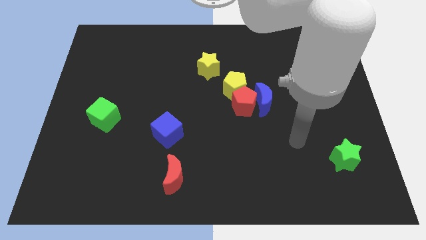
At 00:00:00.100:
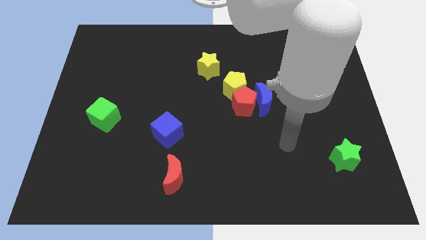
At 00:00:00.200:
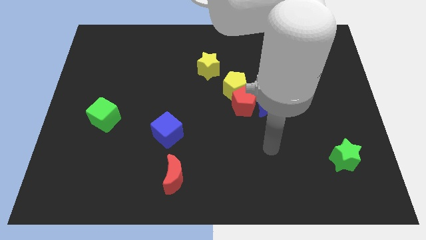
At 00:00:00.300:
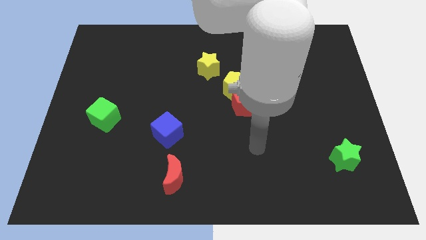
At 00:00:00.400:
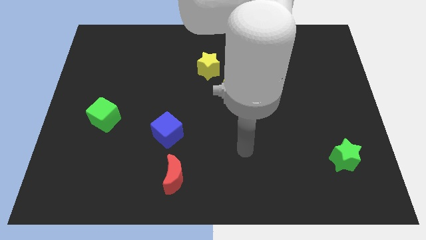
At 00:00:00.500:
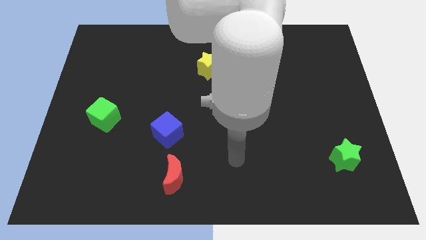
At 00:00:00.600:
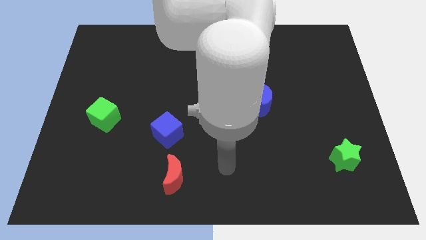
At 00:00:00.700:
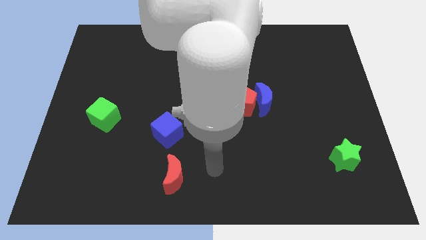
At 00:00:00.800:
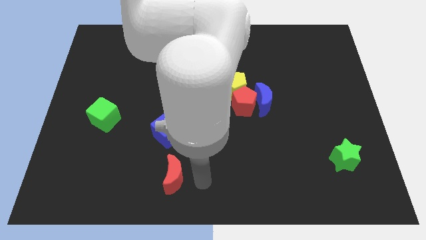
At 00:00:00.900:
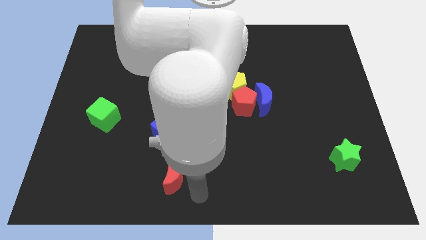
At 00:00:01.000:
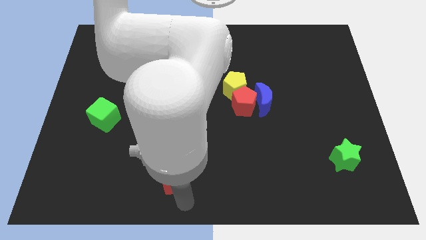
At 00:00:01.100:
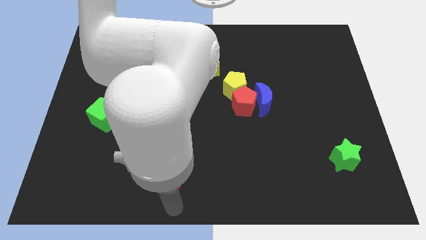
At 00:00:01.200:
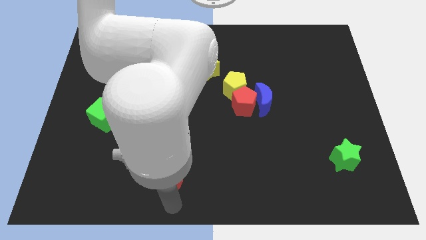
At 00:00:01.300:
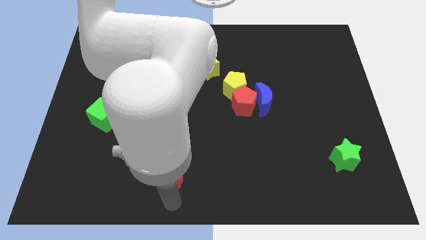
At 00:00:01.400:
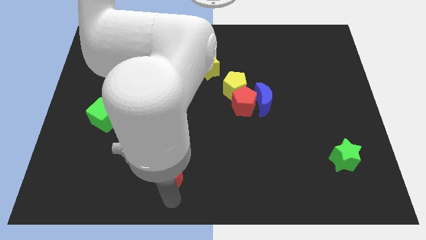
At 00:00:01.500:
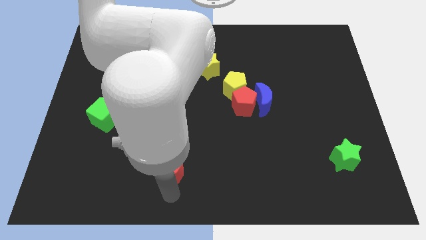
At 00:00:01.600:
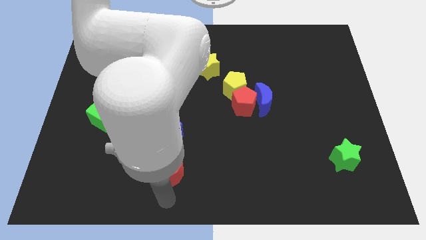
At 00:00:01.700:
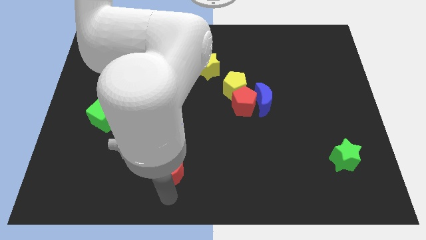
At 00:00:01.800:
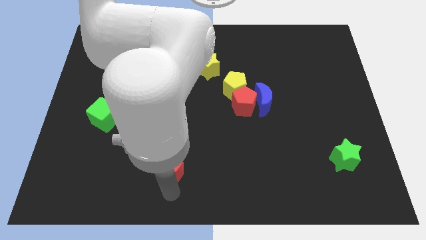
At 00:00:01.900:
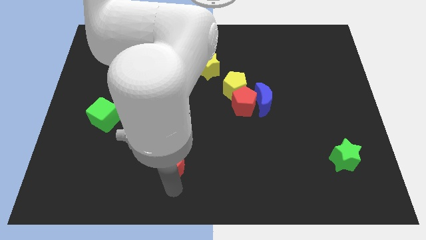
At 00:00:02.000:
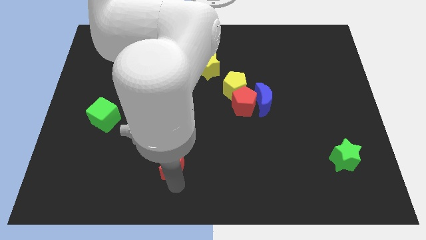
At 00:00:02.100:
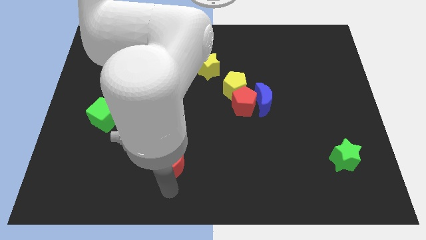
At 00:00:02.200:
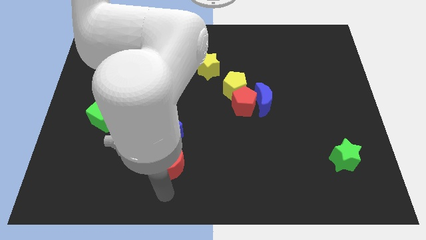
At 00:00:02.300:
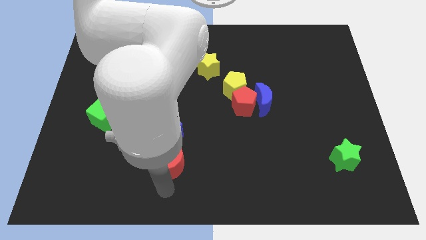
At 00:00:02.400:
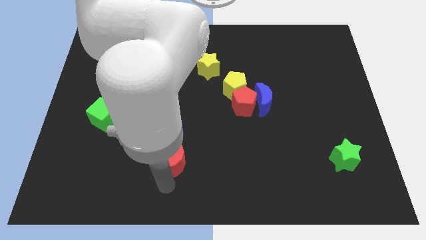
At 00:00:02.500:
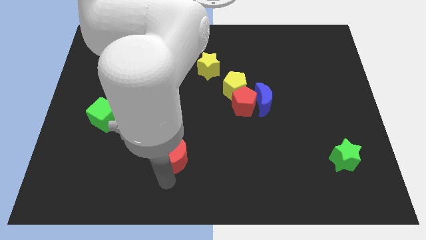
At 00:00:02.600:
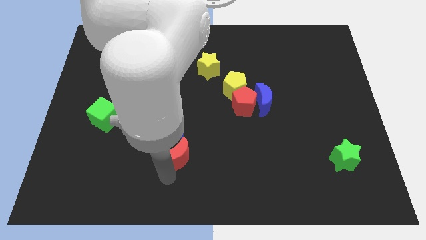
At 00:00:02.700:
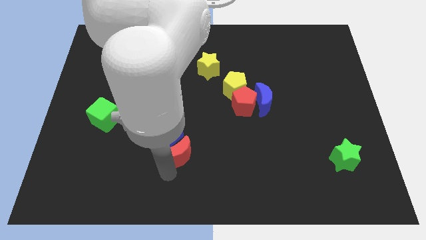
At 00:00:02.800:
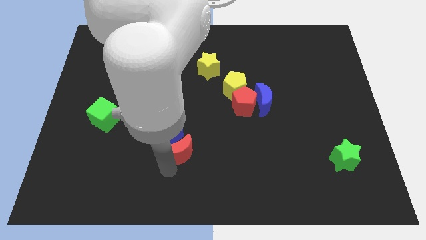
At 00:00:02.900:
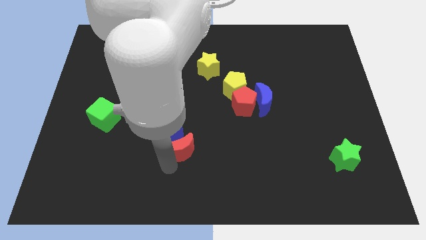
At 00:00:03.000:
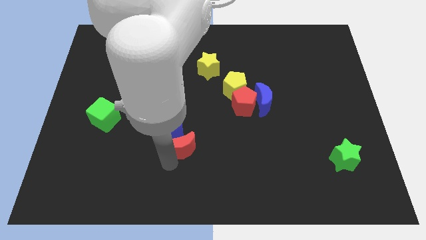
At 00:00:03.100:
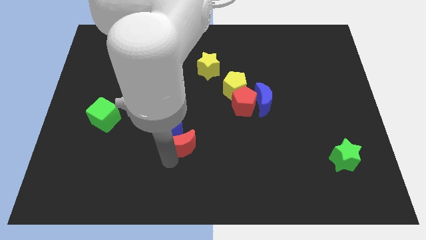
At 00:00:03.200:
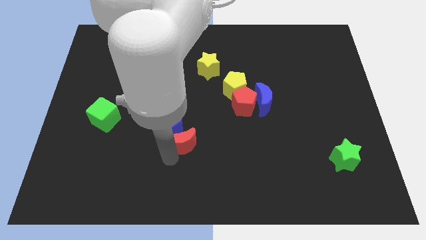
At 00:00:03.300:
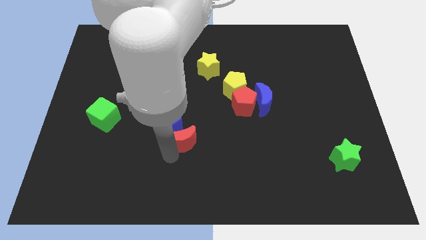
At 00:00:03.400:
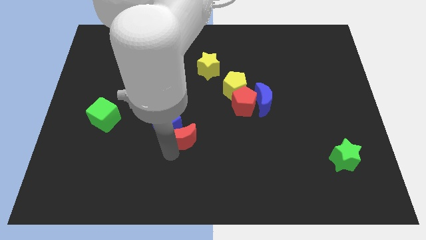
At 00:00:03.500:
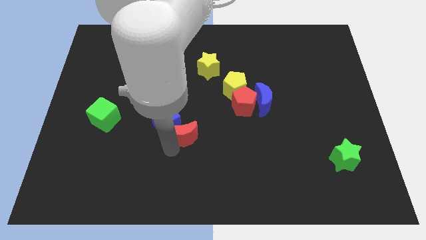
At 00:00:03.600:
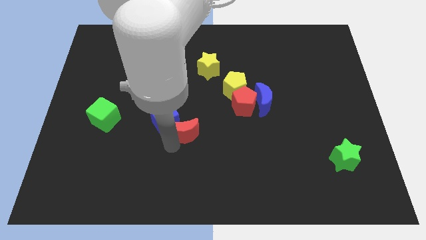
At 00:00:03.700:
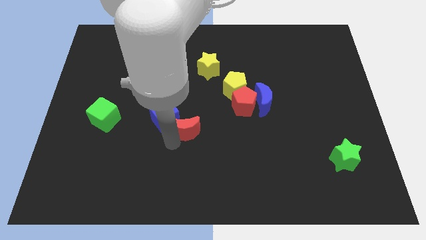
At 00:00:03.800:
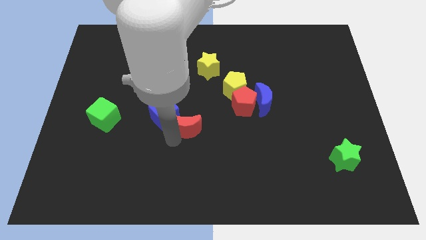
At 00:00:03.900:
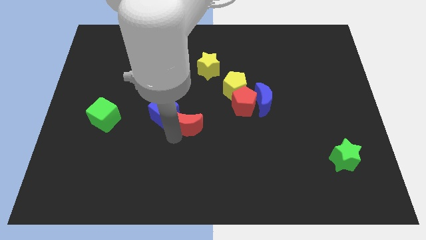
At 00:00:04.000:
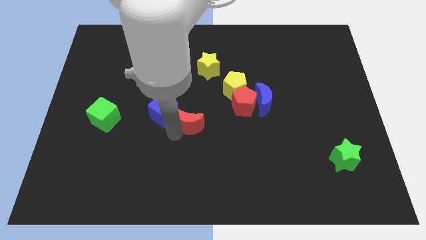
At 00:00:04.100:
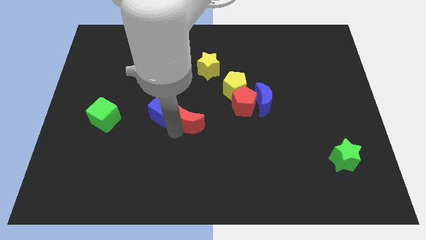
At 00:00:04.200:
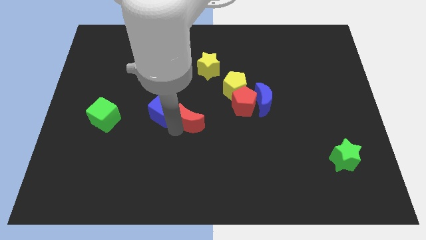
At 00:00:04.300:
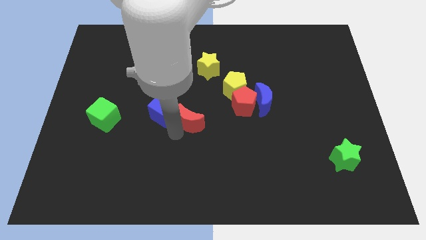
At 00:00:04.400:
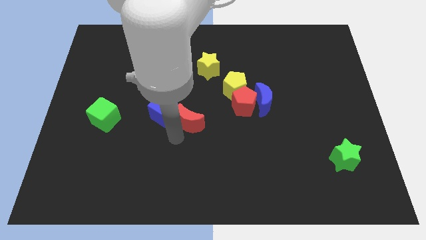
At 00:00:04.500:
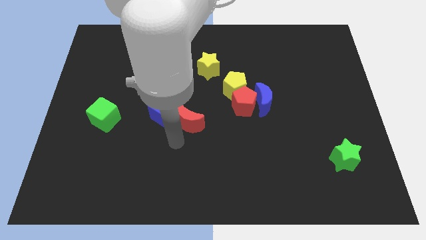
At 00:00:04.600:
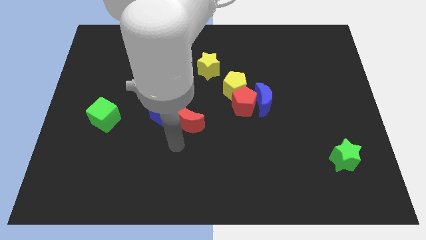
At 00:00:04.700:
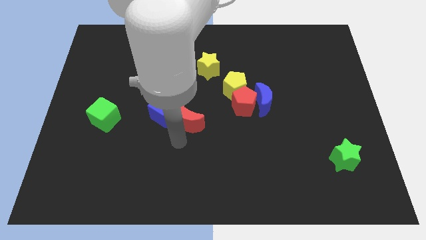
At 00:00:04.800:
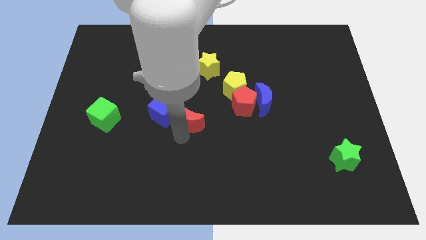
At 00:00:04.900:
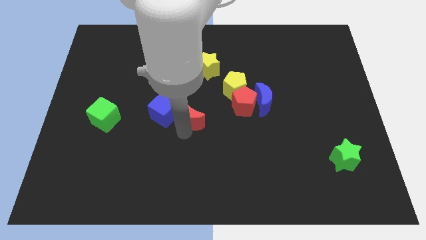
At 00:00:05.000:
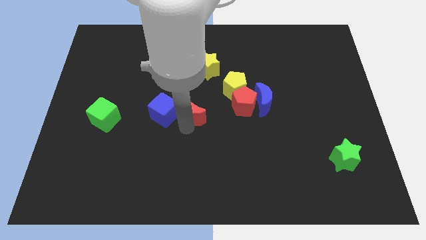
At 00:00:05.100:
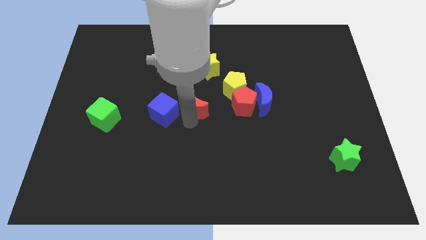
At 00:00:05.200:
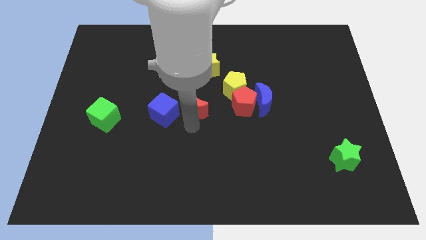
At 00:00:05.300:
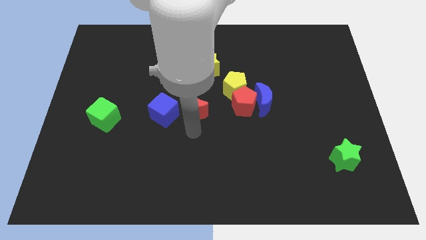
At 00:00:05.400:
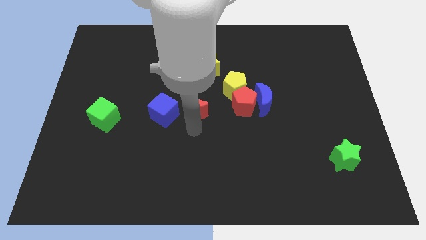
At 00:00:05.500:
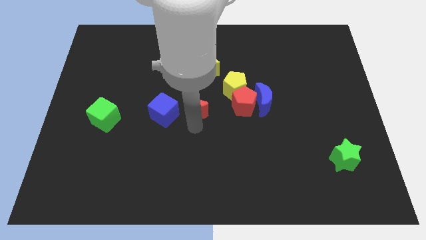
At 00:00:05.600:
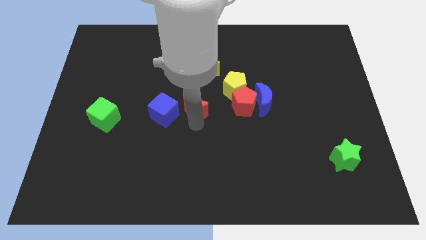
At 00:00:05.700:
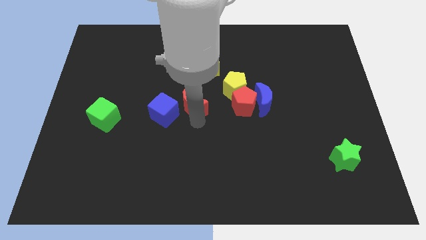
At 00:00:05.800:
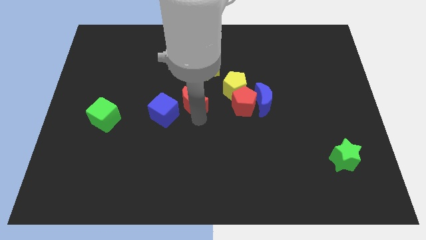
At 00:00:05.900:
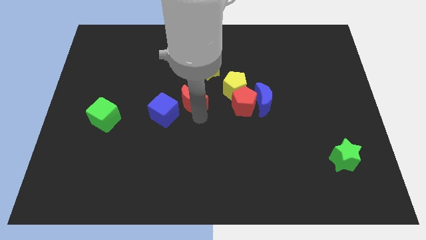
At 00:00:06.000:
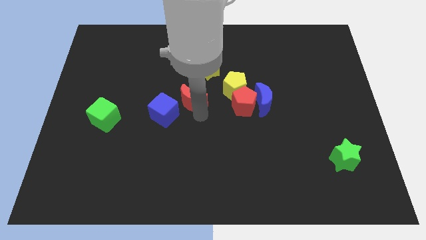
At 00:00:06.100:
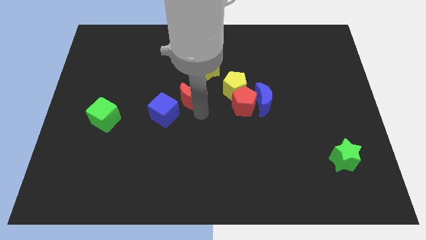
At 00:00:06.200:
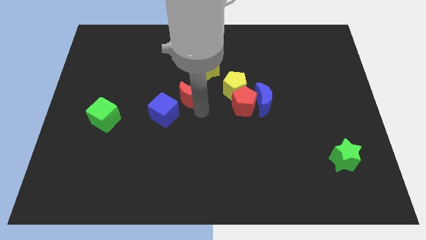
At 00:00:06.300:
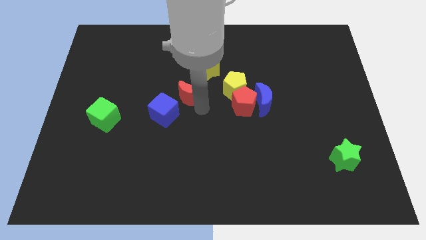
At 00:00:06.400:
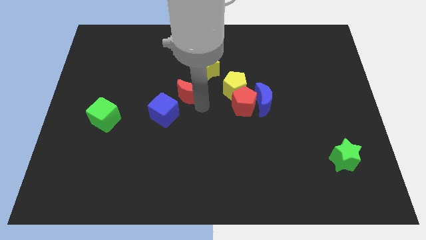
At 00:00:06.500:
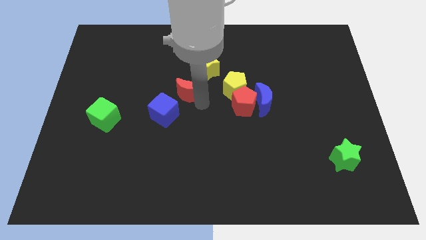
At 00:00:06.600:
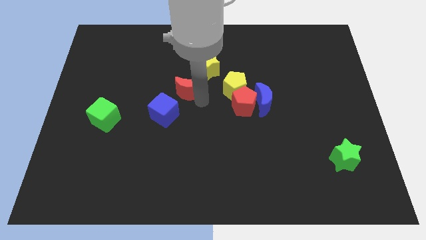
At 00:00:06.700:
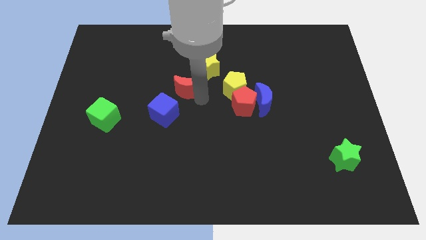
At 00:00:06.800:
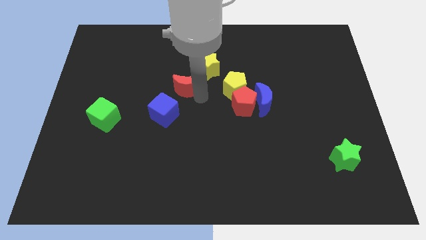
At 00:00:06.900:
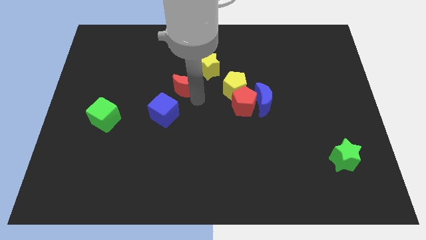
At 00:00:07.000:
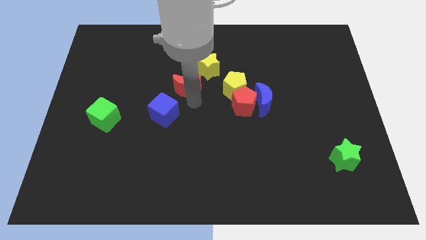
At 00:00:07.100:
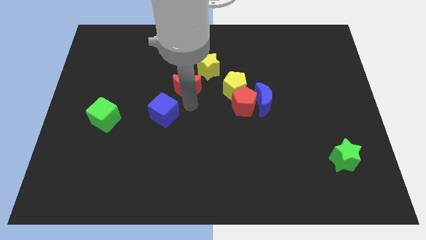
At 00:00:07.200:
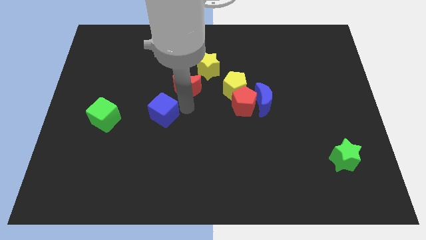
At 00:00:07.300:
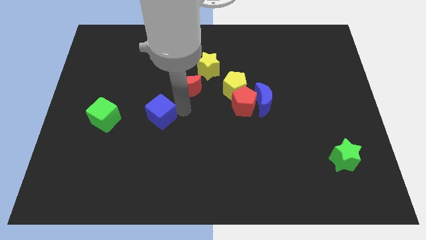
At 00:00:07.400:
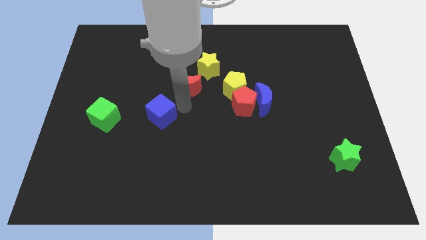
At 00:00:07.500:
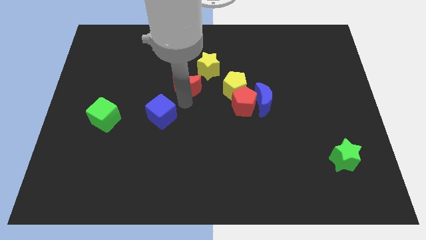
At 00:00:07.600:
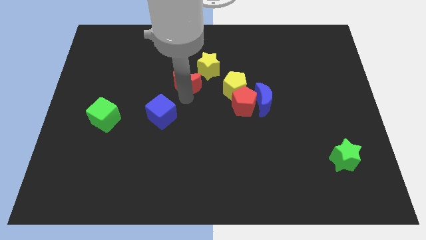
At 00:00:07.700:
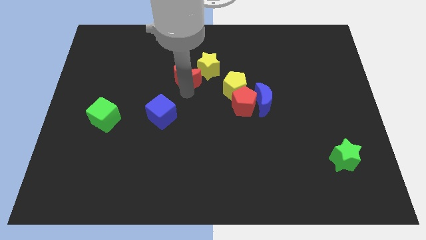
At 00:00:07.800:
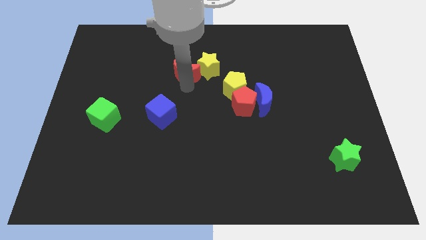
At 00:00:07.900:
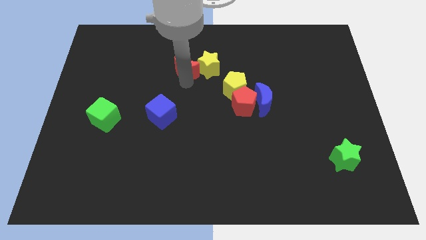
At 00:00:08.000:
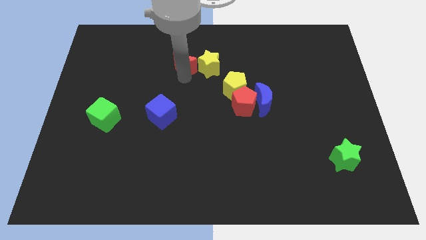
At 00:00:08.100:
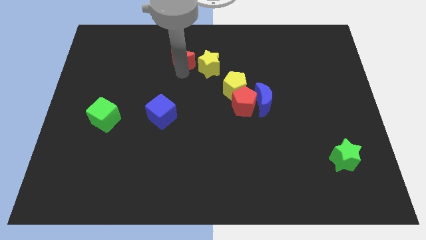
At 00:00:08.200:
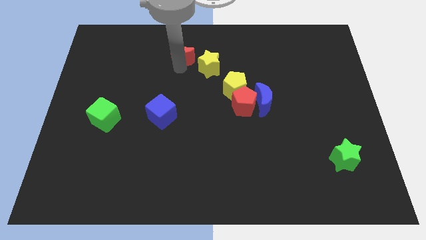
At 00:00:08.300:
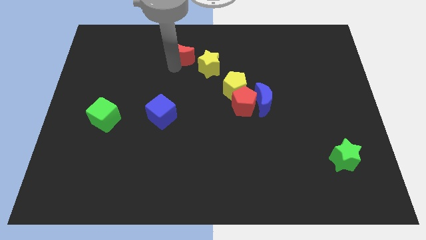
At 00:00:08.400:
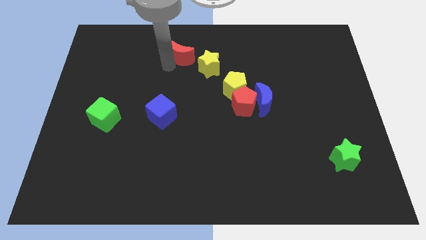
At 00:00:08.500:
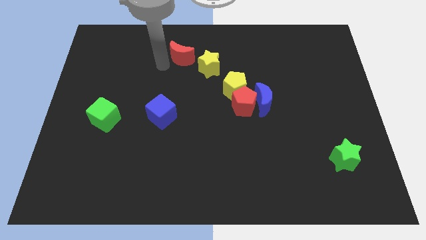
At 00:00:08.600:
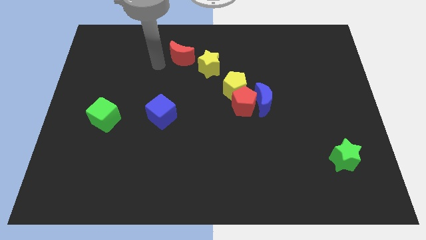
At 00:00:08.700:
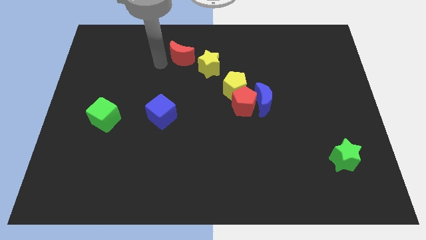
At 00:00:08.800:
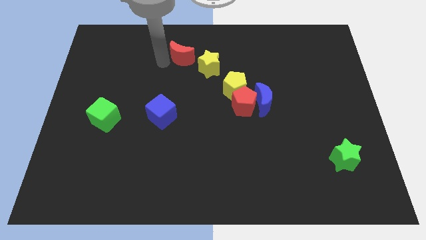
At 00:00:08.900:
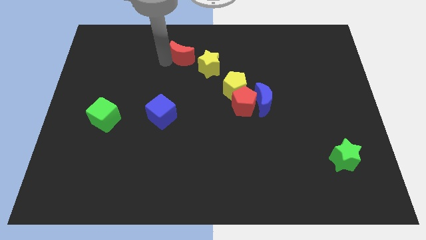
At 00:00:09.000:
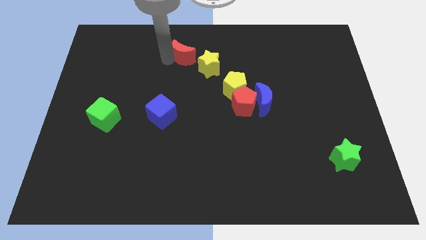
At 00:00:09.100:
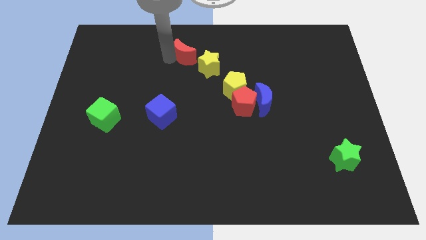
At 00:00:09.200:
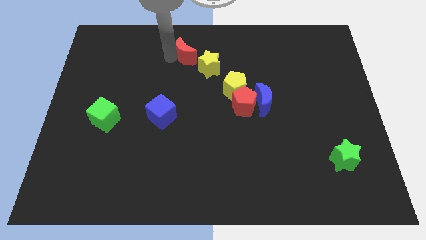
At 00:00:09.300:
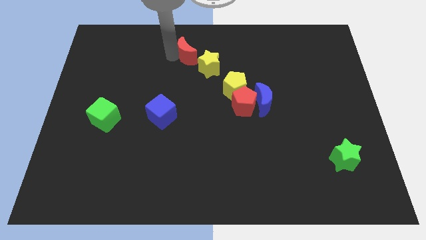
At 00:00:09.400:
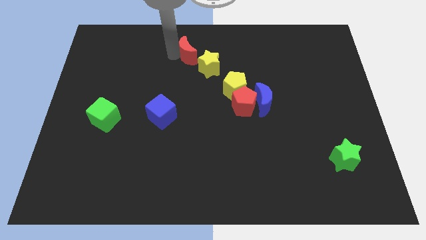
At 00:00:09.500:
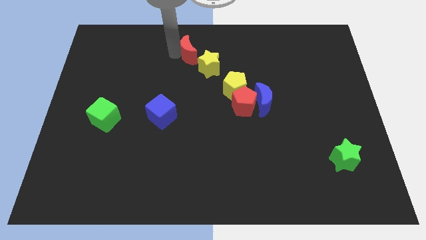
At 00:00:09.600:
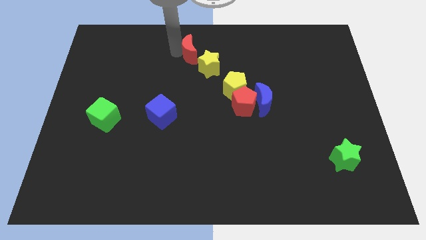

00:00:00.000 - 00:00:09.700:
put the red moon to the towards your base
